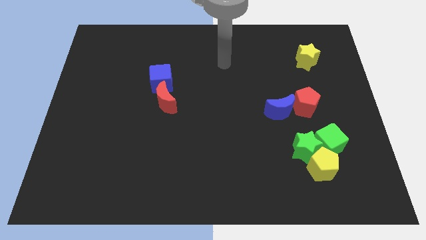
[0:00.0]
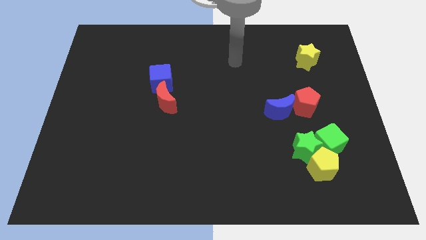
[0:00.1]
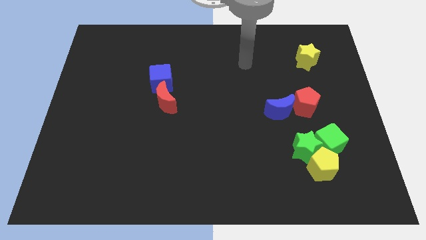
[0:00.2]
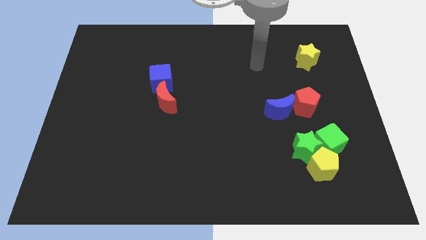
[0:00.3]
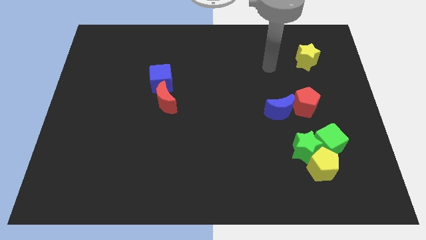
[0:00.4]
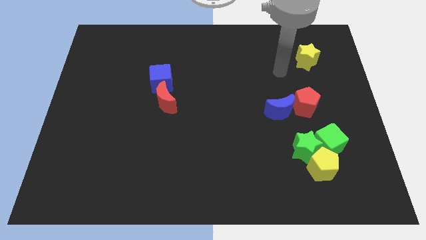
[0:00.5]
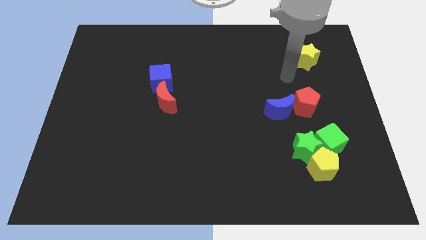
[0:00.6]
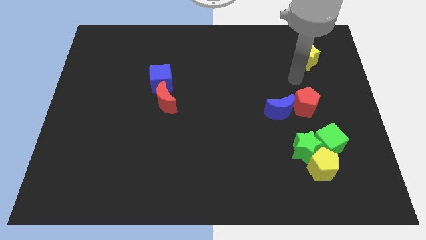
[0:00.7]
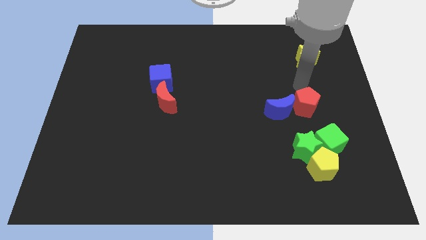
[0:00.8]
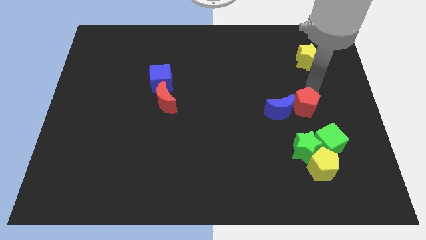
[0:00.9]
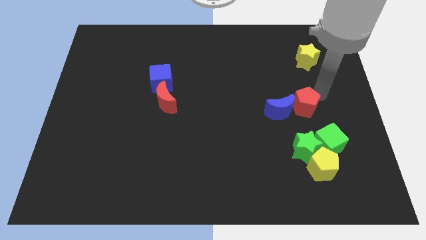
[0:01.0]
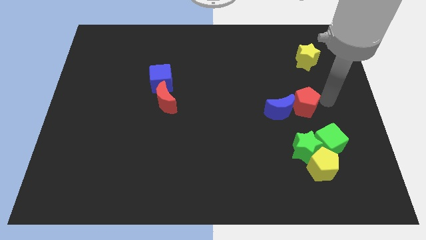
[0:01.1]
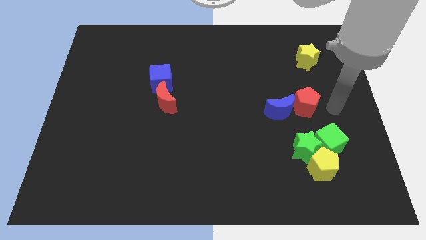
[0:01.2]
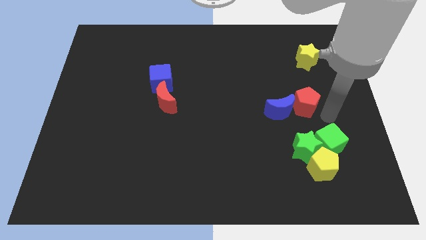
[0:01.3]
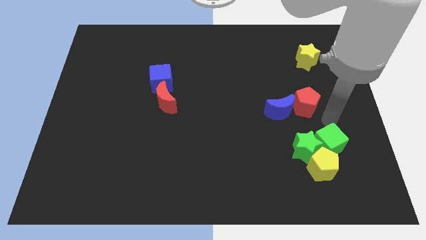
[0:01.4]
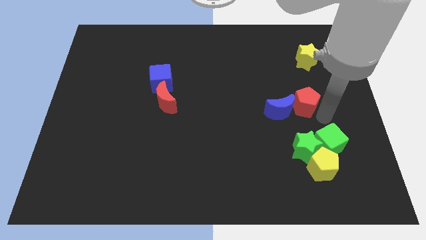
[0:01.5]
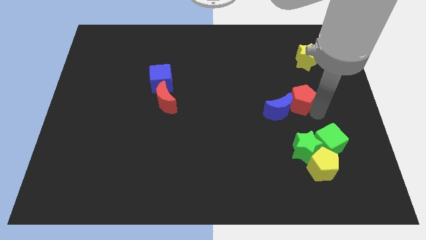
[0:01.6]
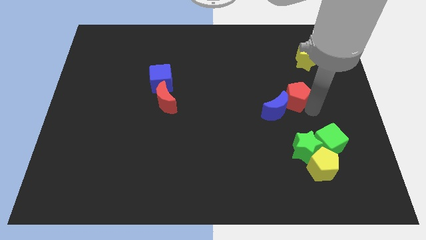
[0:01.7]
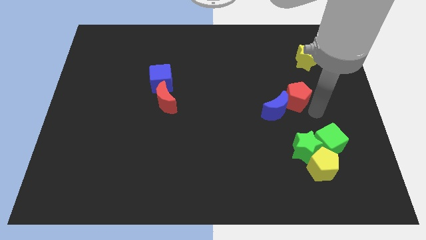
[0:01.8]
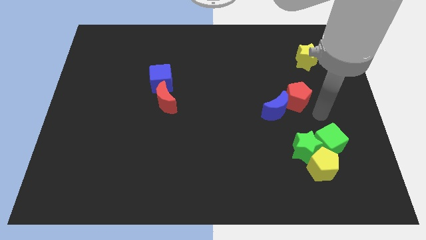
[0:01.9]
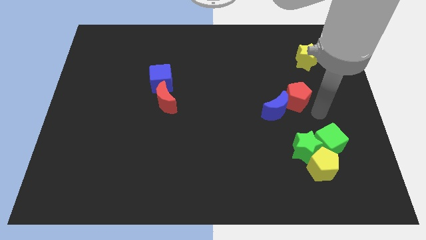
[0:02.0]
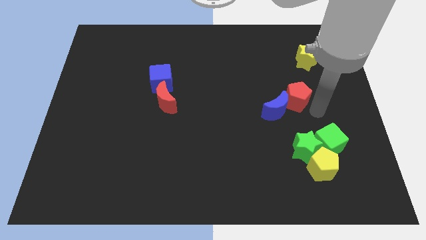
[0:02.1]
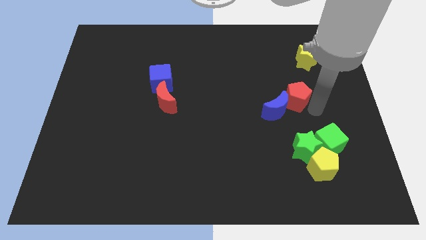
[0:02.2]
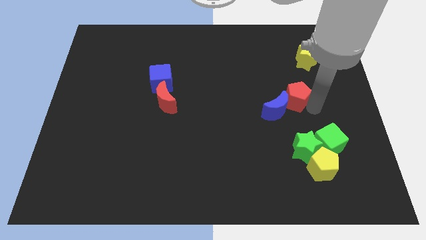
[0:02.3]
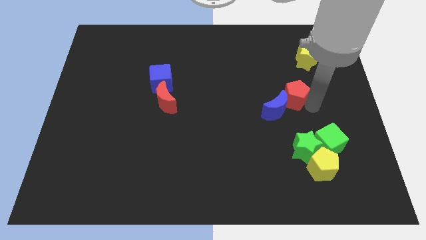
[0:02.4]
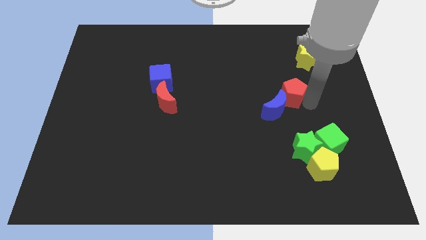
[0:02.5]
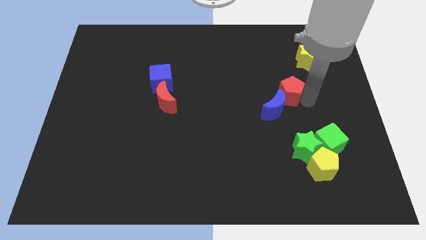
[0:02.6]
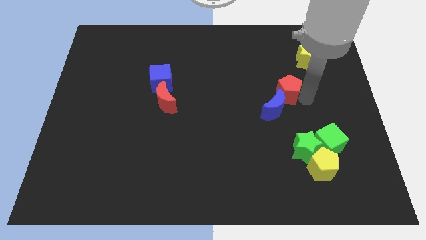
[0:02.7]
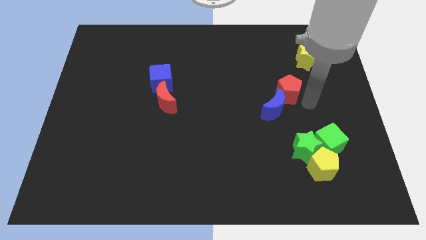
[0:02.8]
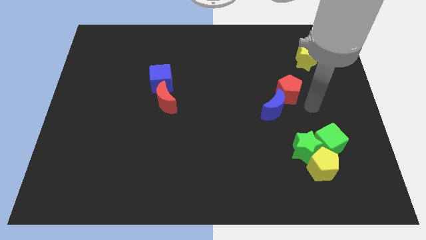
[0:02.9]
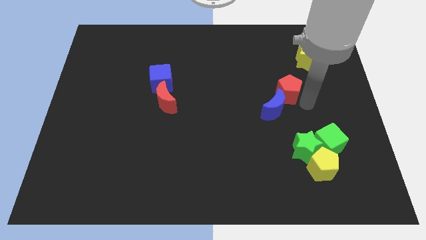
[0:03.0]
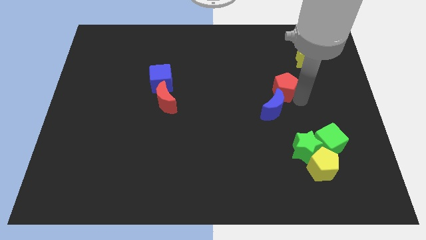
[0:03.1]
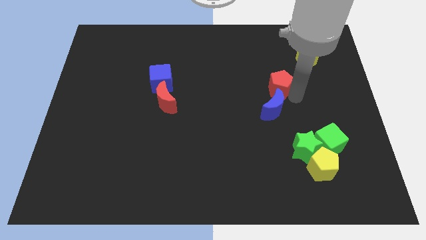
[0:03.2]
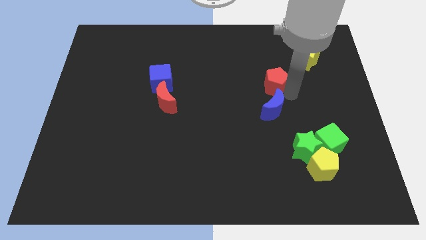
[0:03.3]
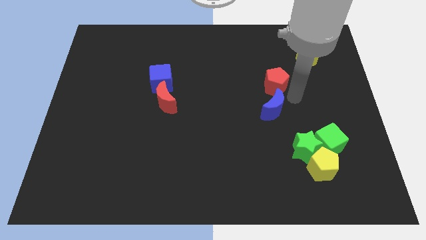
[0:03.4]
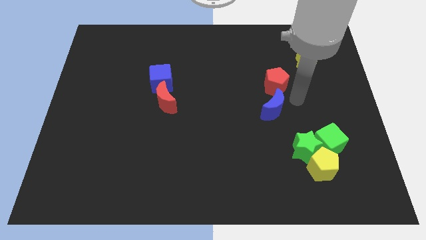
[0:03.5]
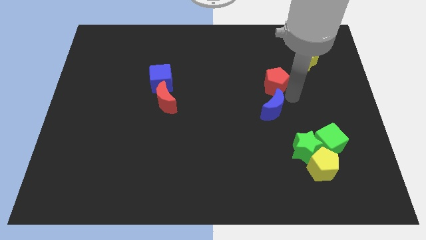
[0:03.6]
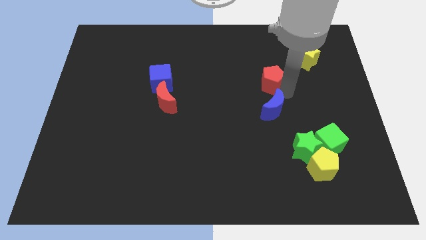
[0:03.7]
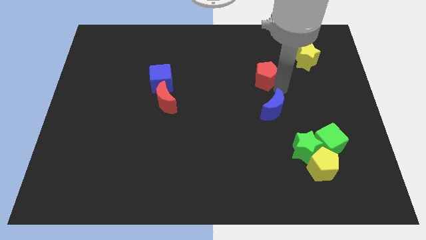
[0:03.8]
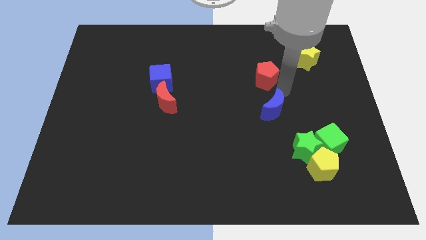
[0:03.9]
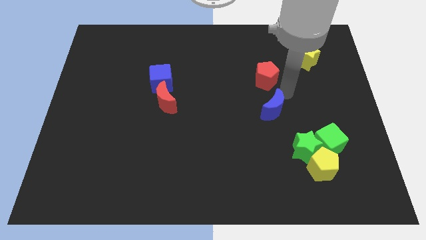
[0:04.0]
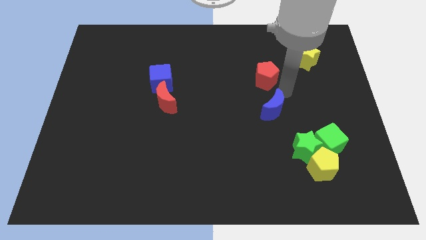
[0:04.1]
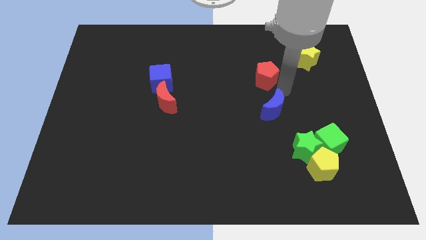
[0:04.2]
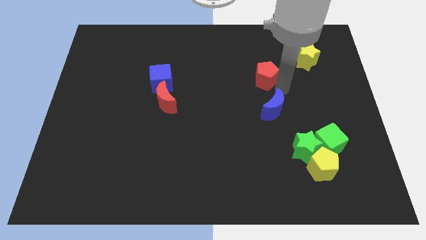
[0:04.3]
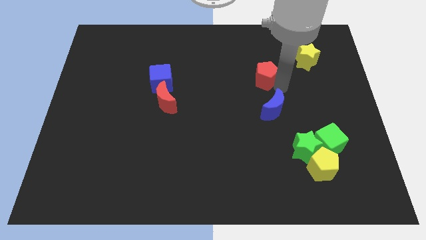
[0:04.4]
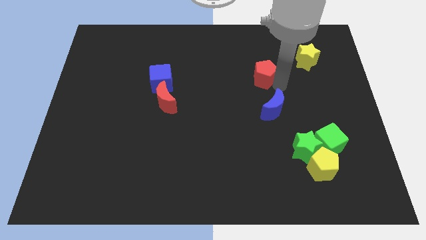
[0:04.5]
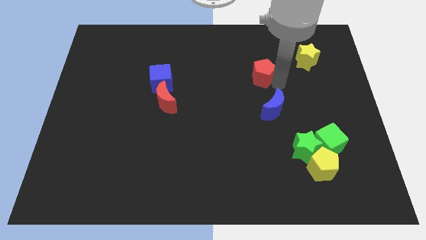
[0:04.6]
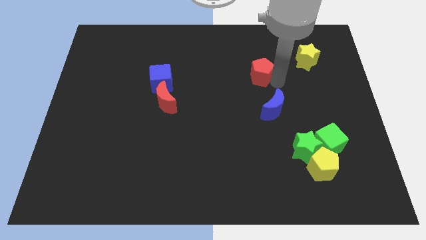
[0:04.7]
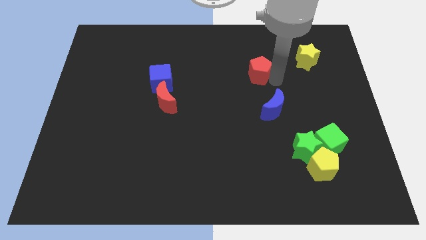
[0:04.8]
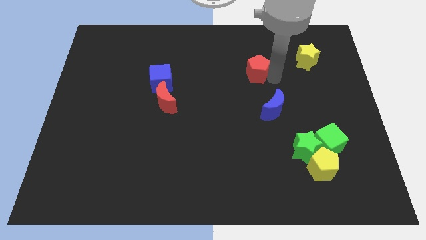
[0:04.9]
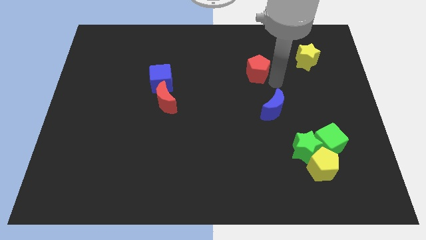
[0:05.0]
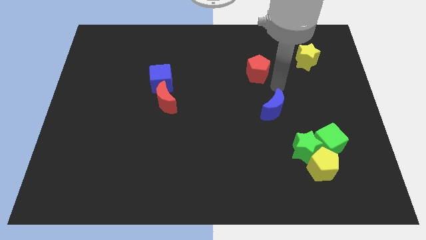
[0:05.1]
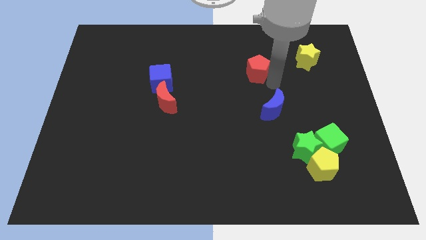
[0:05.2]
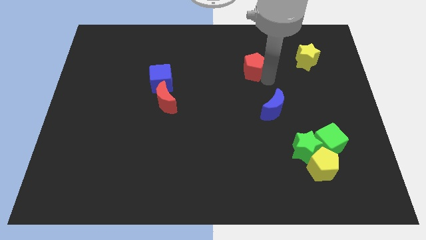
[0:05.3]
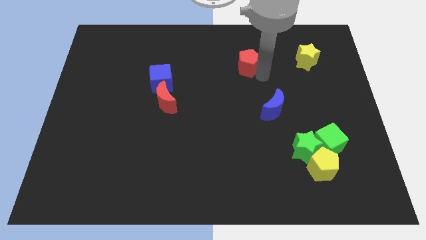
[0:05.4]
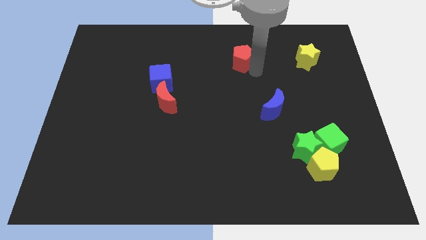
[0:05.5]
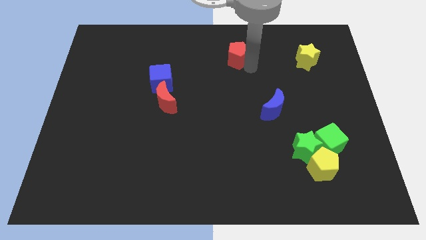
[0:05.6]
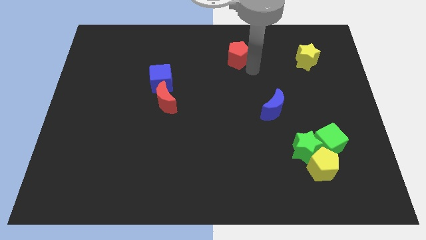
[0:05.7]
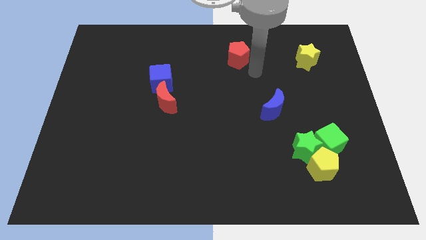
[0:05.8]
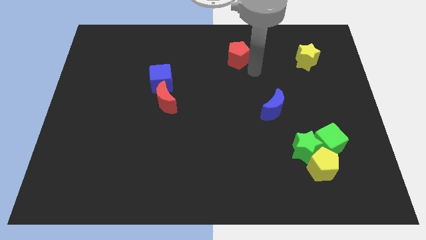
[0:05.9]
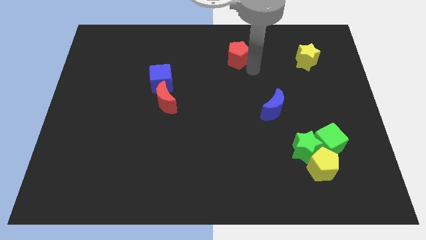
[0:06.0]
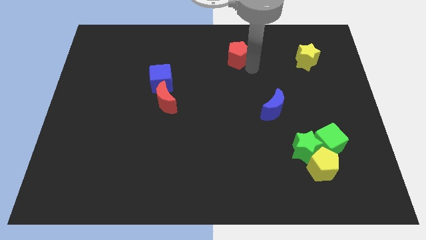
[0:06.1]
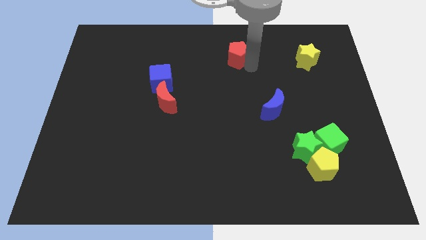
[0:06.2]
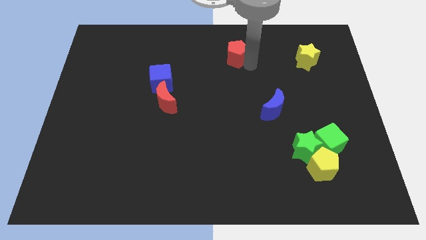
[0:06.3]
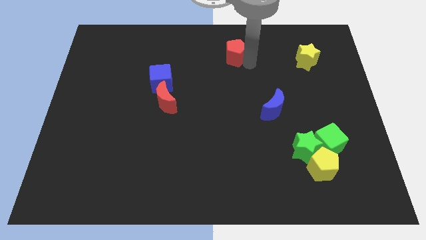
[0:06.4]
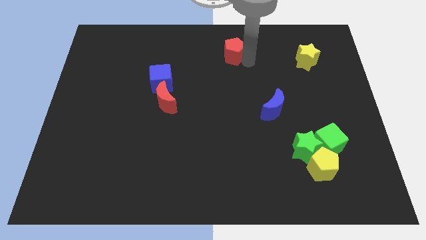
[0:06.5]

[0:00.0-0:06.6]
slide the red pentagon to the towards your base
